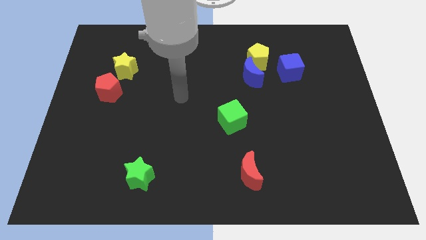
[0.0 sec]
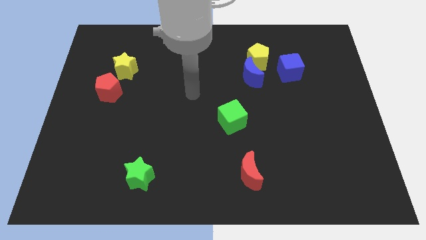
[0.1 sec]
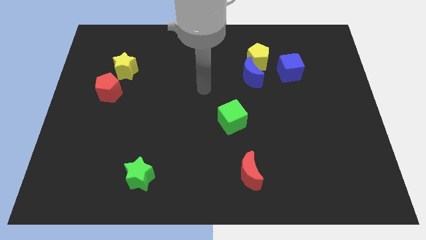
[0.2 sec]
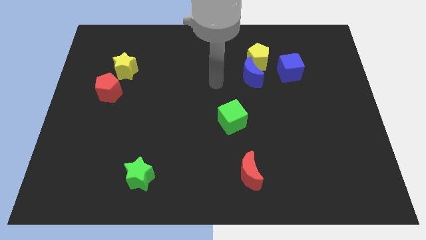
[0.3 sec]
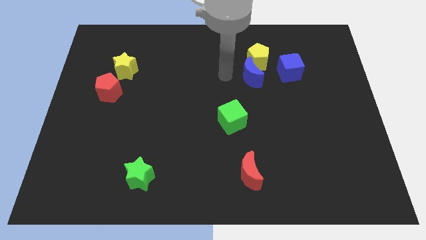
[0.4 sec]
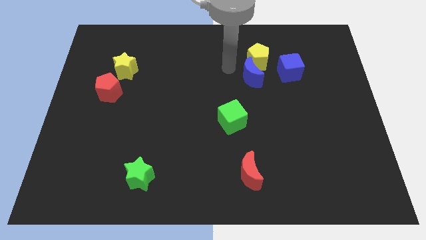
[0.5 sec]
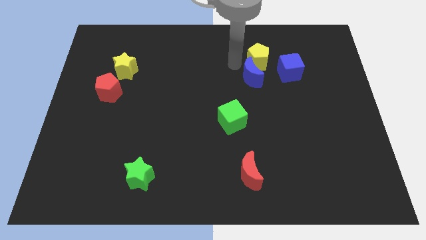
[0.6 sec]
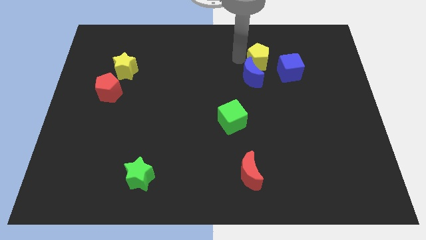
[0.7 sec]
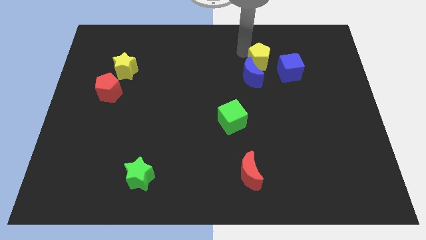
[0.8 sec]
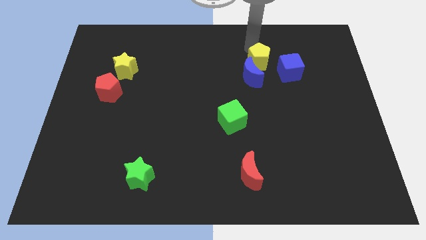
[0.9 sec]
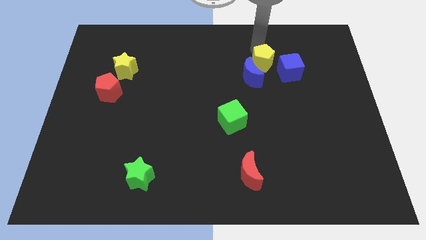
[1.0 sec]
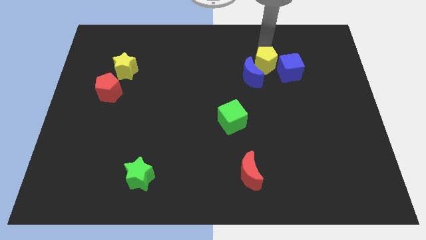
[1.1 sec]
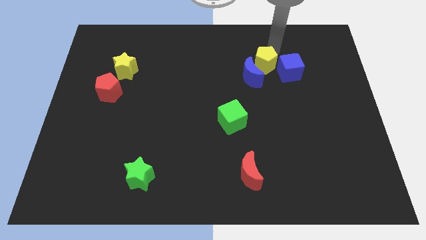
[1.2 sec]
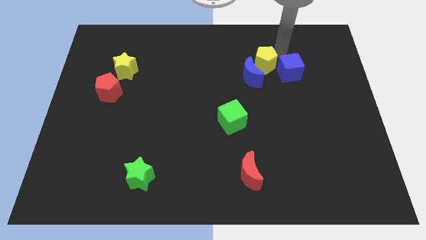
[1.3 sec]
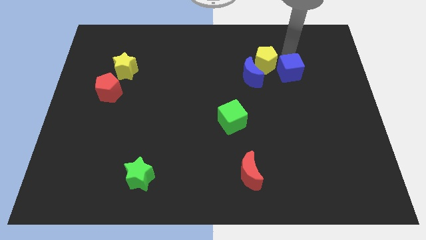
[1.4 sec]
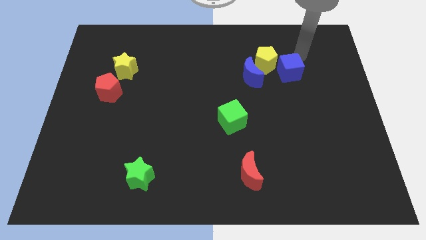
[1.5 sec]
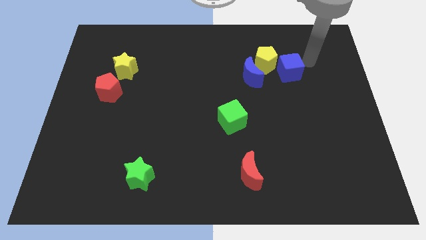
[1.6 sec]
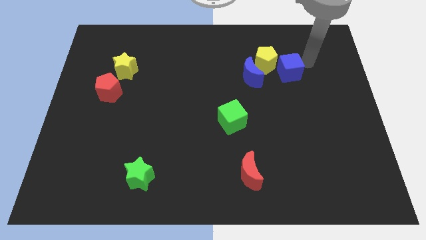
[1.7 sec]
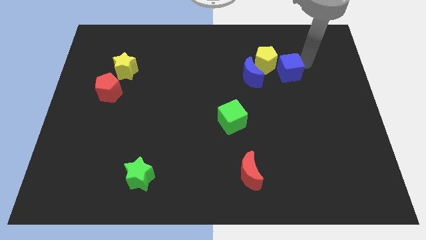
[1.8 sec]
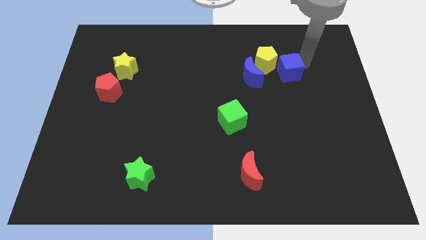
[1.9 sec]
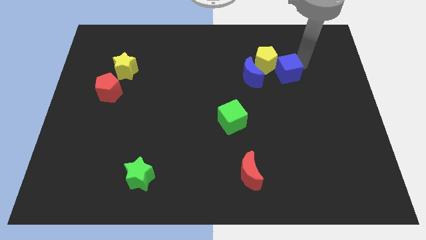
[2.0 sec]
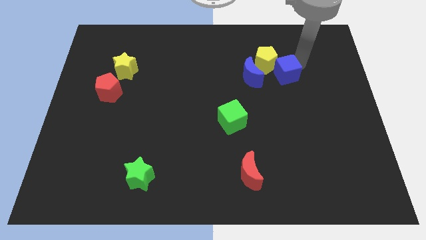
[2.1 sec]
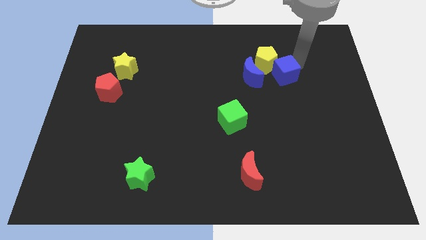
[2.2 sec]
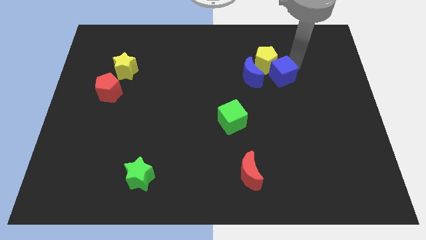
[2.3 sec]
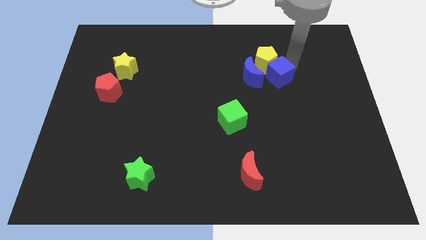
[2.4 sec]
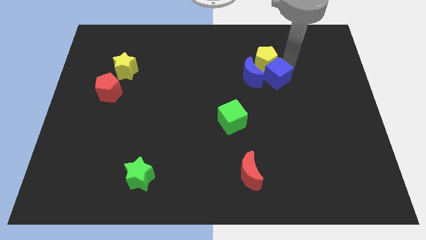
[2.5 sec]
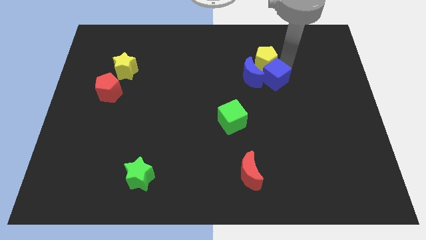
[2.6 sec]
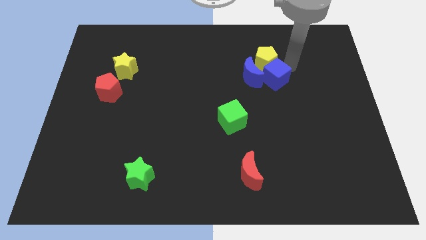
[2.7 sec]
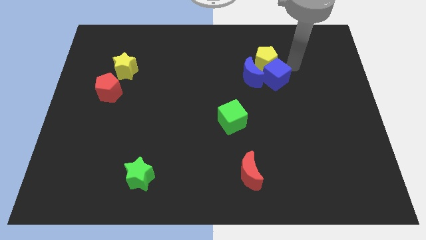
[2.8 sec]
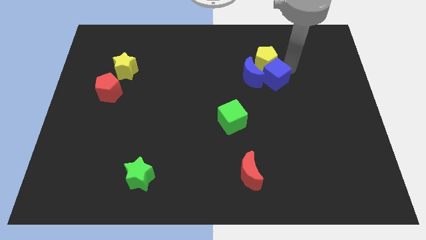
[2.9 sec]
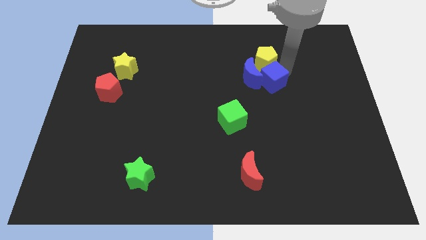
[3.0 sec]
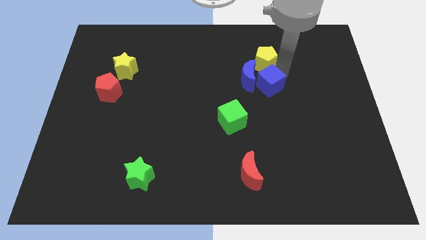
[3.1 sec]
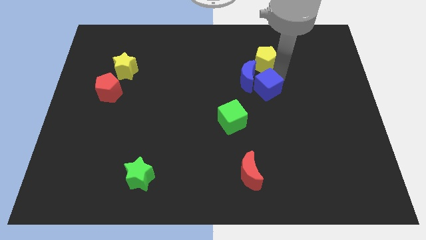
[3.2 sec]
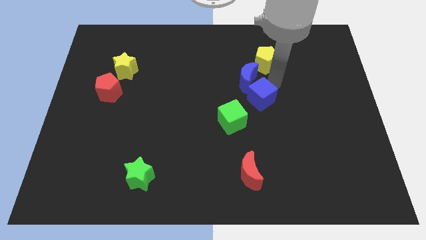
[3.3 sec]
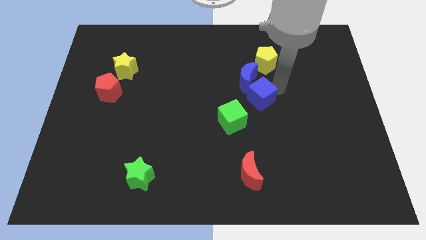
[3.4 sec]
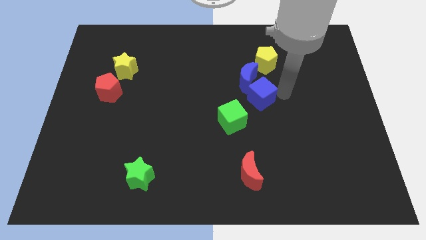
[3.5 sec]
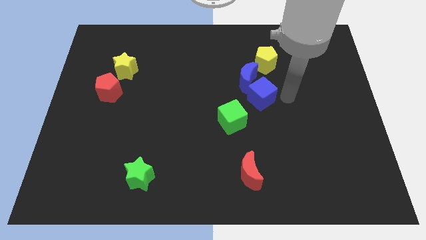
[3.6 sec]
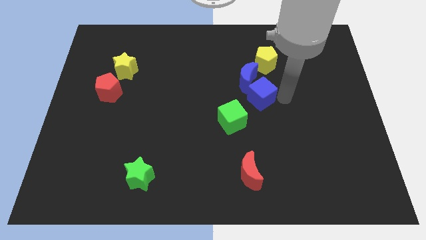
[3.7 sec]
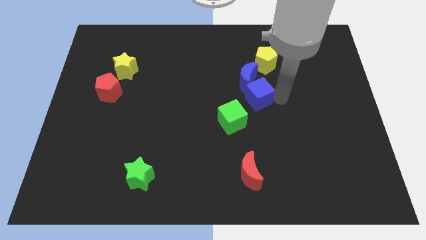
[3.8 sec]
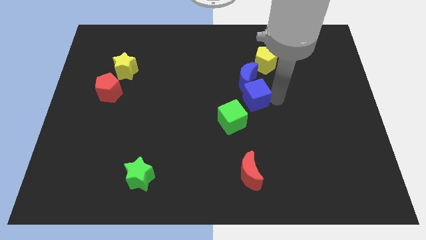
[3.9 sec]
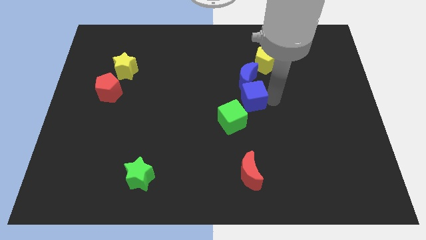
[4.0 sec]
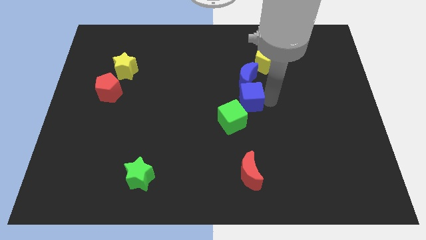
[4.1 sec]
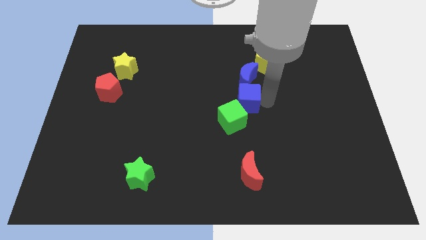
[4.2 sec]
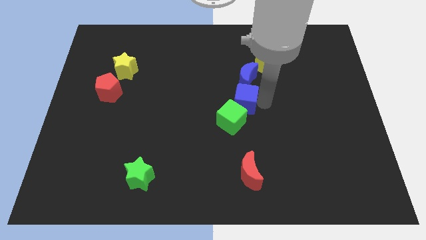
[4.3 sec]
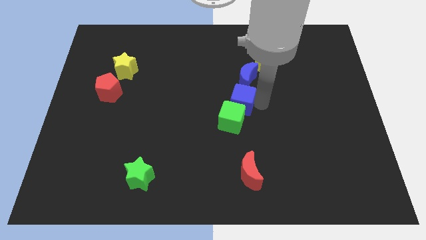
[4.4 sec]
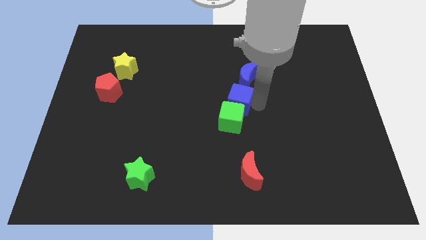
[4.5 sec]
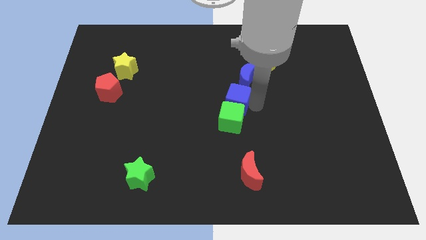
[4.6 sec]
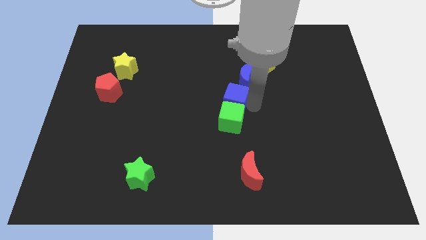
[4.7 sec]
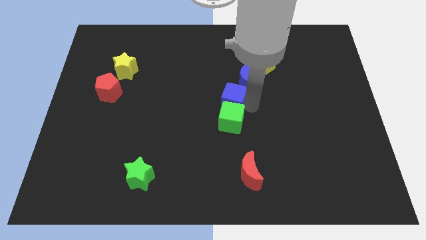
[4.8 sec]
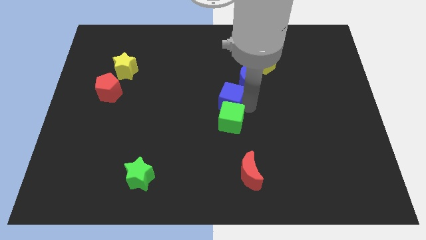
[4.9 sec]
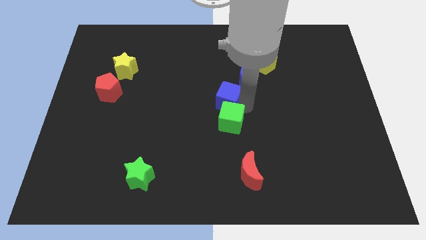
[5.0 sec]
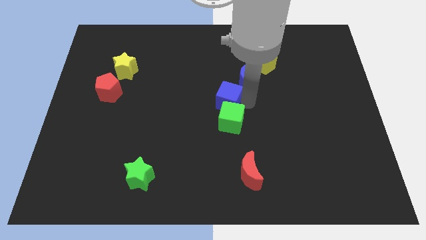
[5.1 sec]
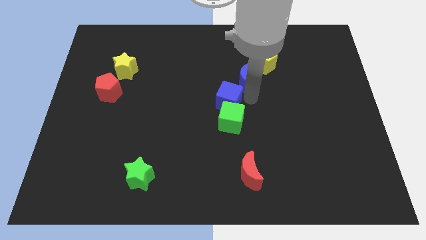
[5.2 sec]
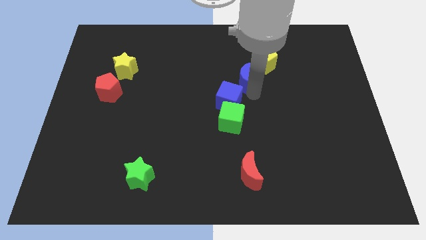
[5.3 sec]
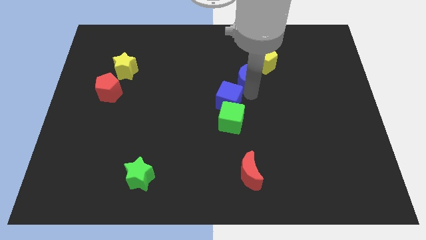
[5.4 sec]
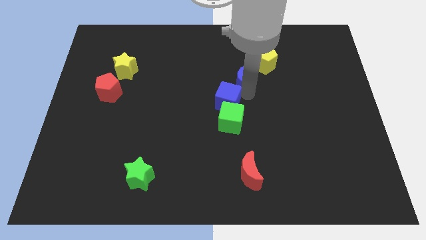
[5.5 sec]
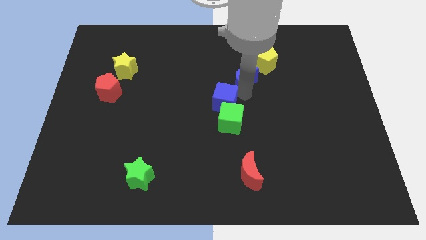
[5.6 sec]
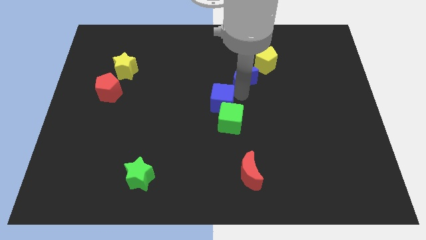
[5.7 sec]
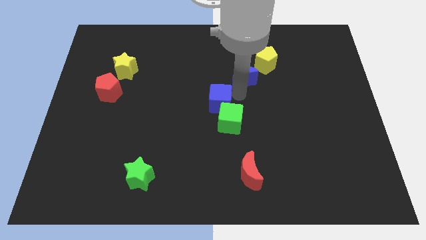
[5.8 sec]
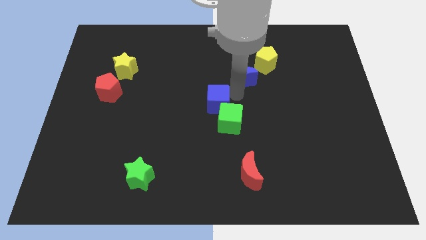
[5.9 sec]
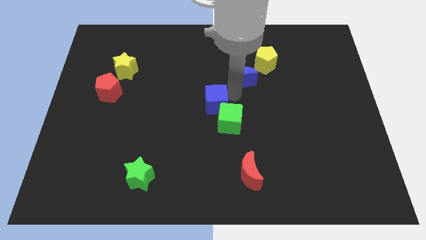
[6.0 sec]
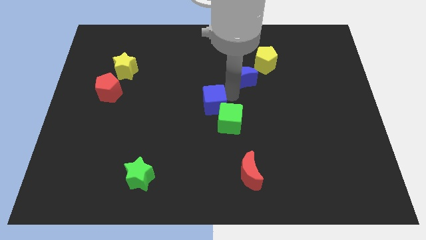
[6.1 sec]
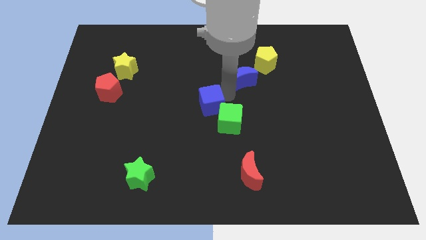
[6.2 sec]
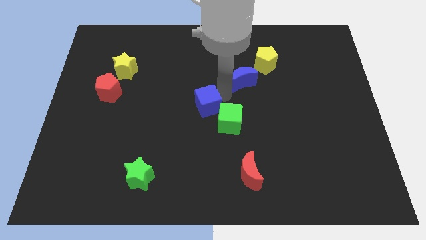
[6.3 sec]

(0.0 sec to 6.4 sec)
put the blue cube left of the green cube

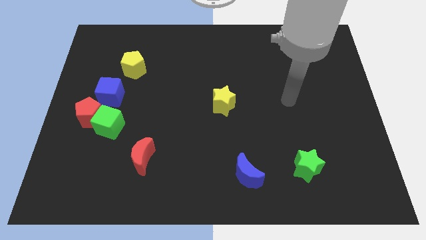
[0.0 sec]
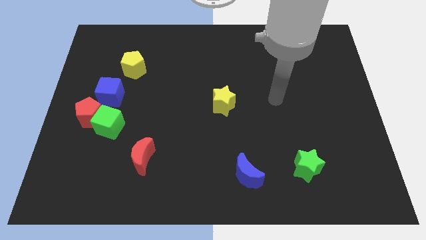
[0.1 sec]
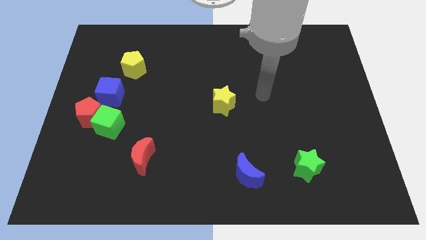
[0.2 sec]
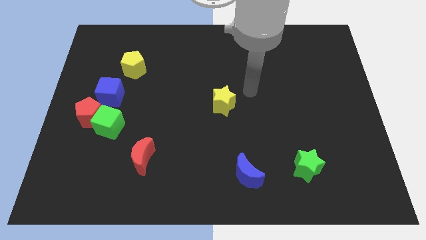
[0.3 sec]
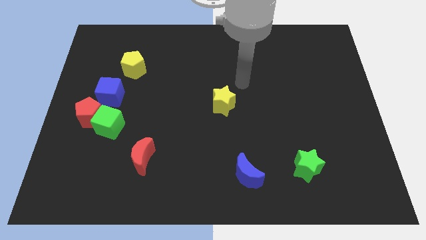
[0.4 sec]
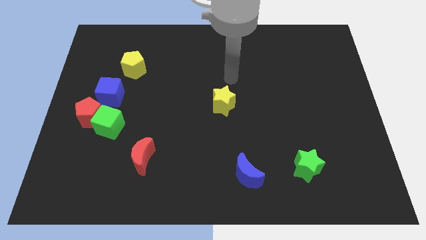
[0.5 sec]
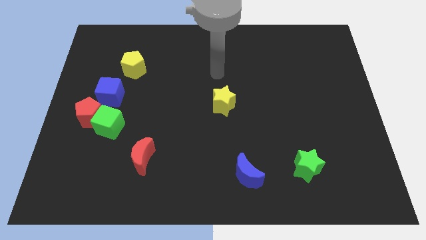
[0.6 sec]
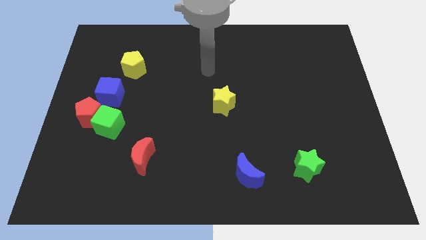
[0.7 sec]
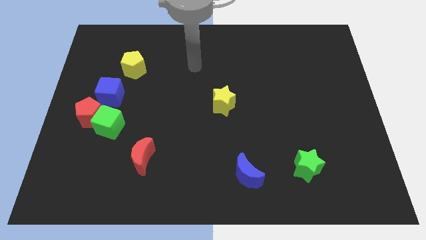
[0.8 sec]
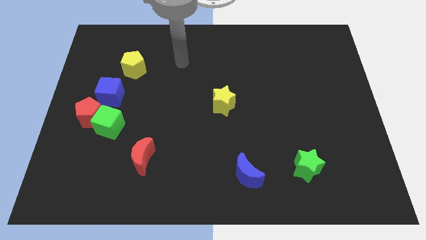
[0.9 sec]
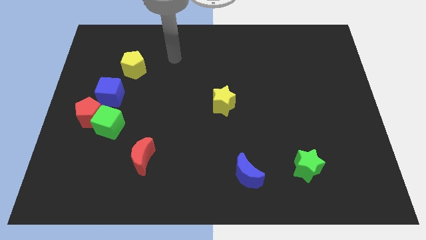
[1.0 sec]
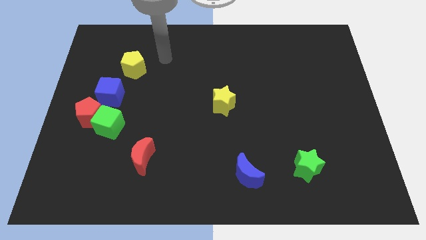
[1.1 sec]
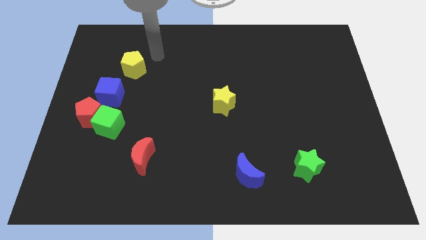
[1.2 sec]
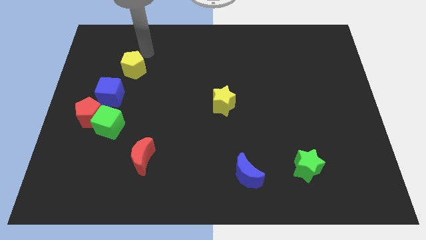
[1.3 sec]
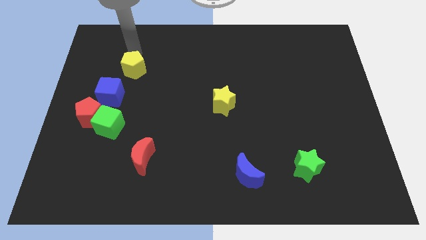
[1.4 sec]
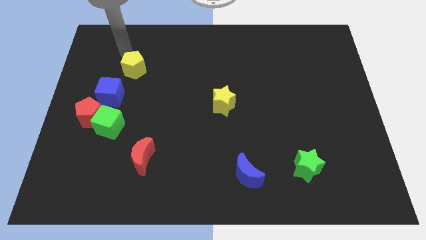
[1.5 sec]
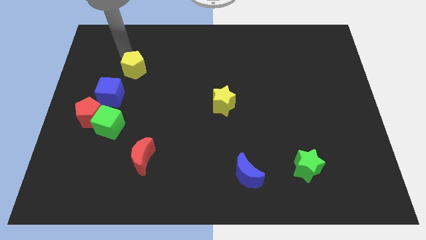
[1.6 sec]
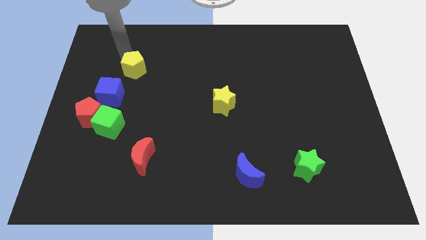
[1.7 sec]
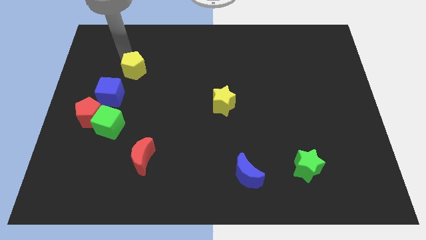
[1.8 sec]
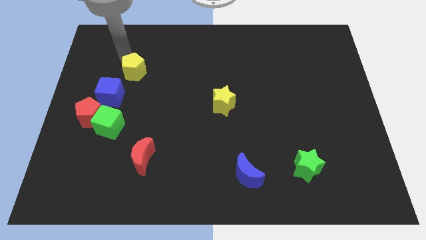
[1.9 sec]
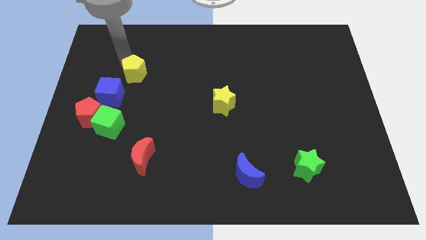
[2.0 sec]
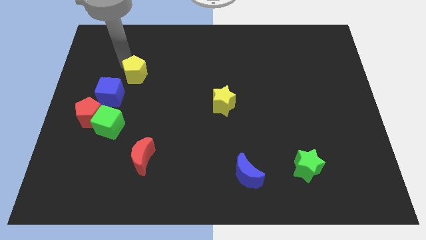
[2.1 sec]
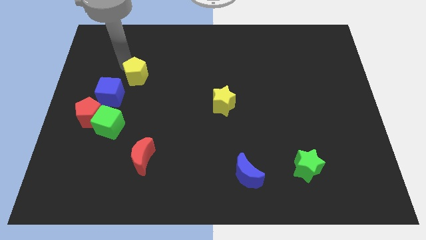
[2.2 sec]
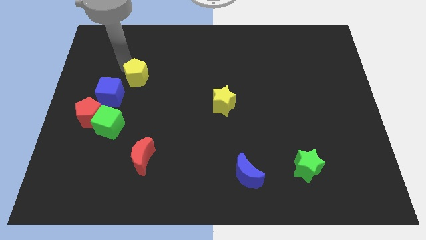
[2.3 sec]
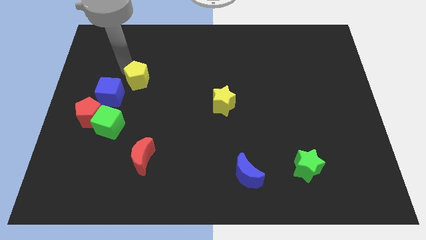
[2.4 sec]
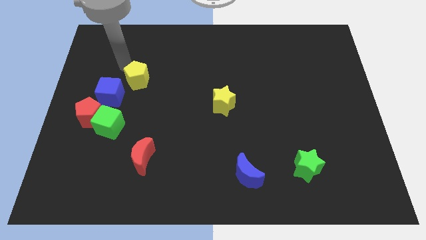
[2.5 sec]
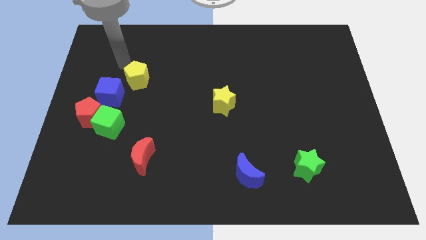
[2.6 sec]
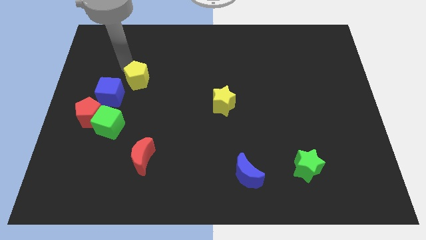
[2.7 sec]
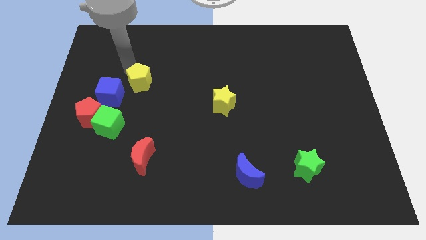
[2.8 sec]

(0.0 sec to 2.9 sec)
move the yellow pentagon just right of the blue cube
